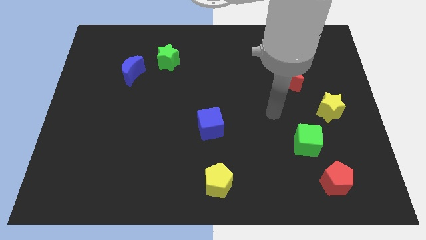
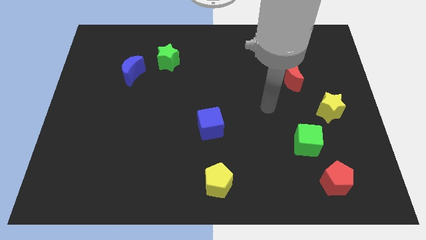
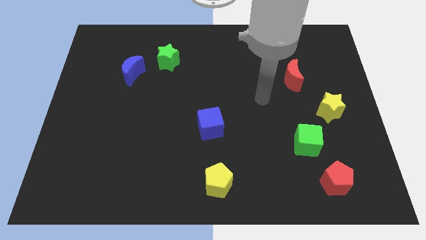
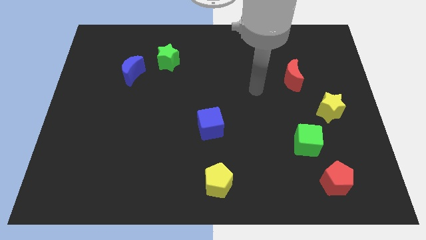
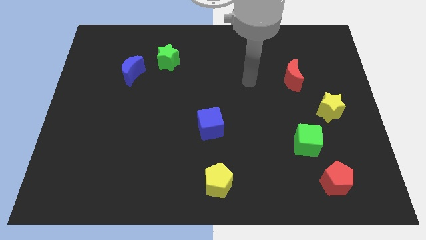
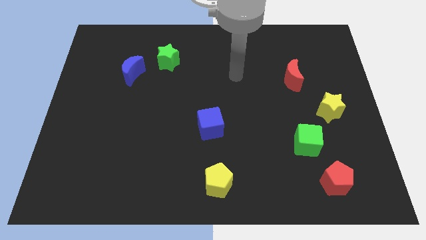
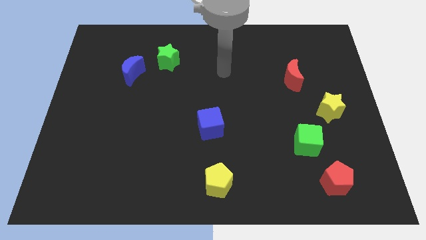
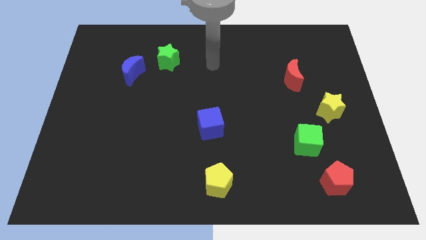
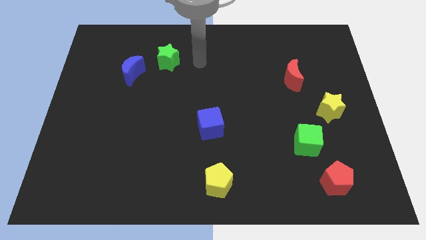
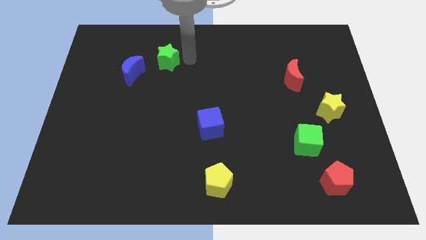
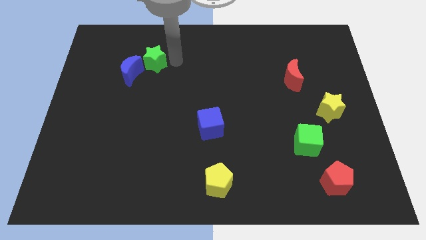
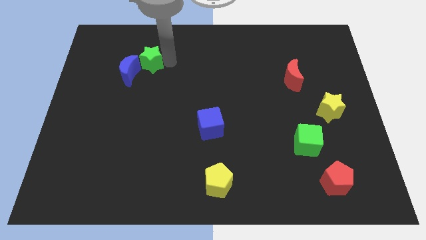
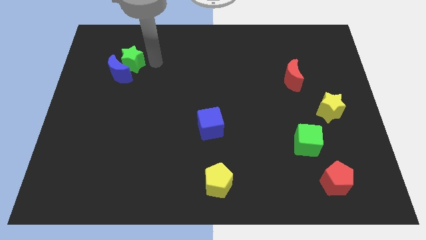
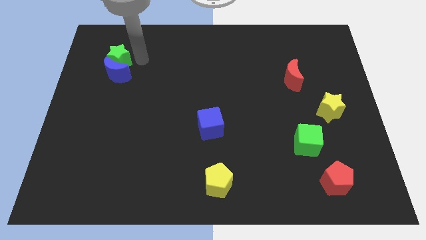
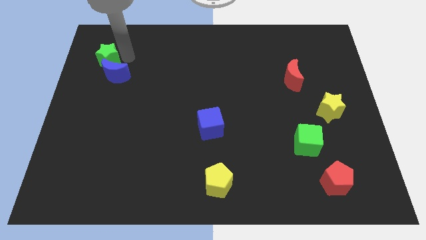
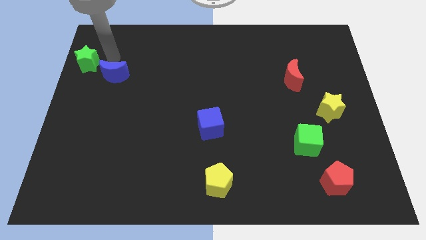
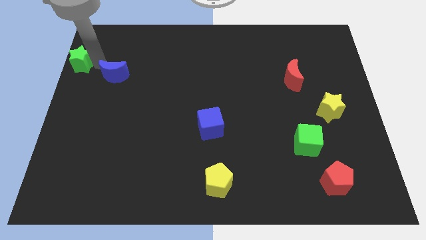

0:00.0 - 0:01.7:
pull the blue moon apart from the green star

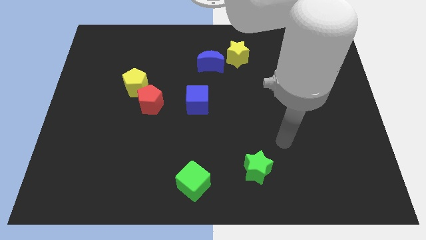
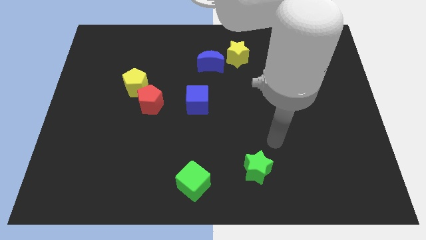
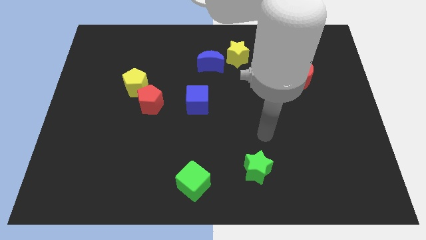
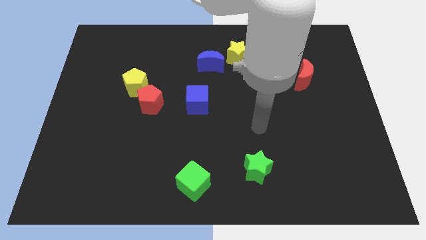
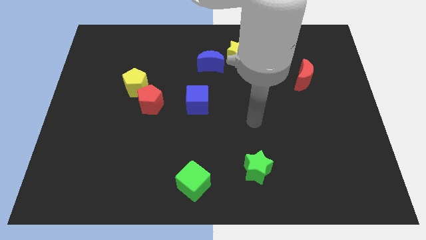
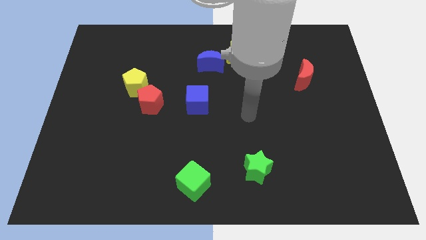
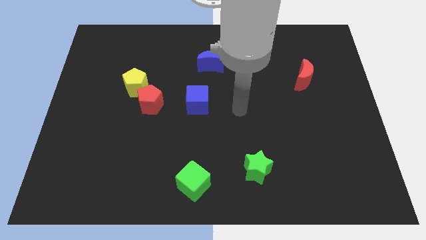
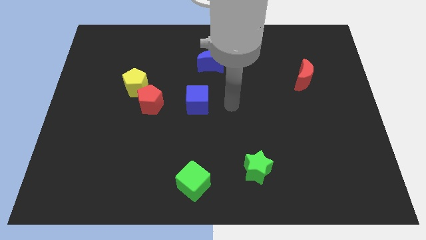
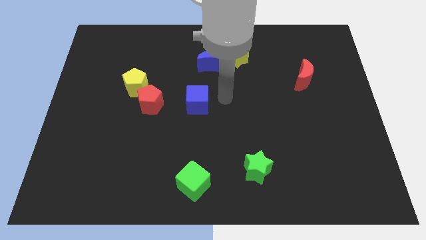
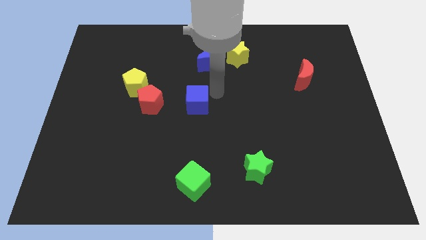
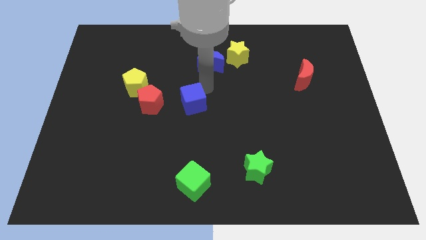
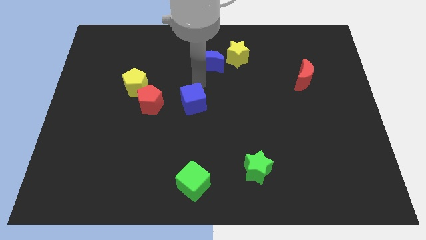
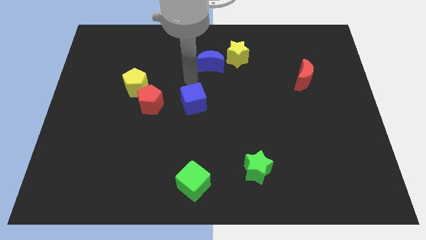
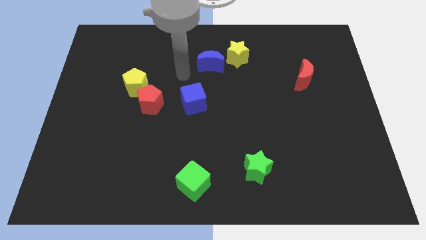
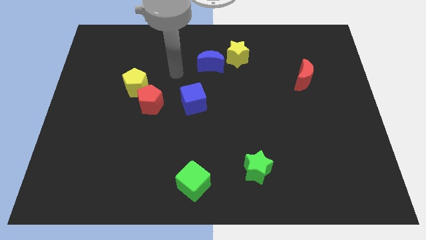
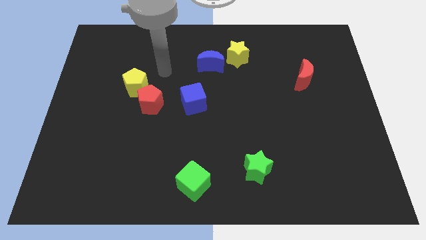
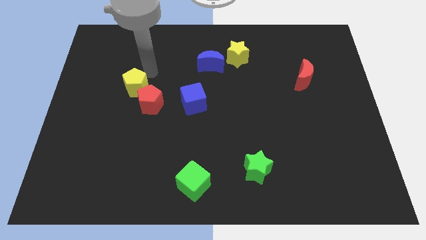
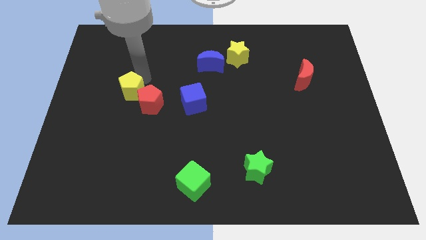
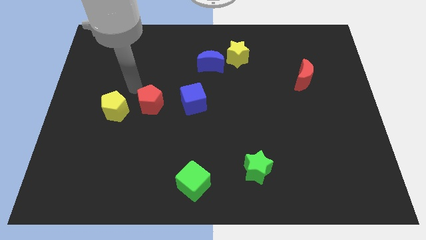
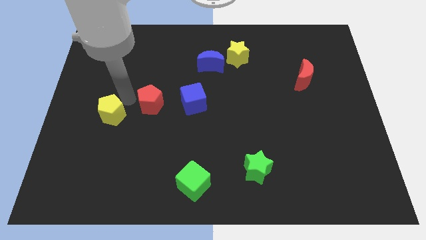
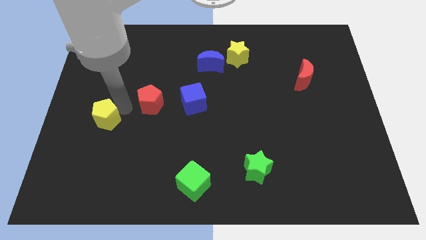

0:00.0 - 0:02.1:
move the red pentagon away from the yellow pentagon

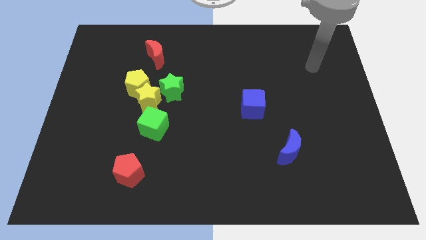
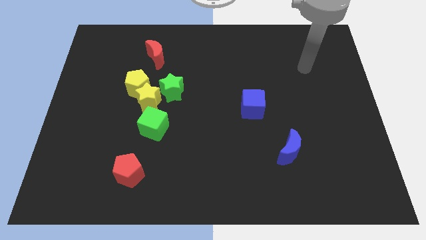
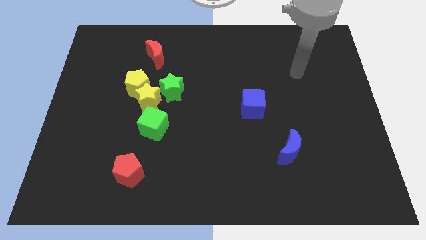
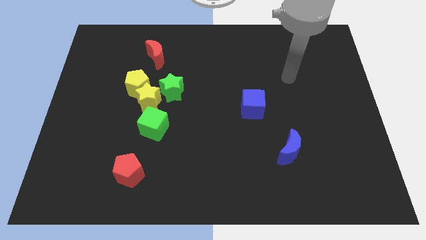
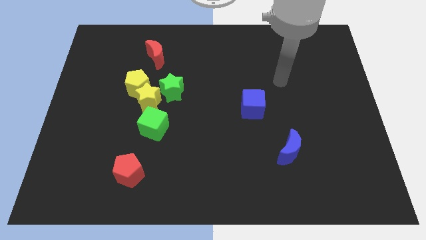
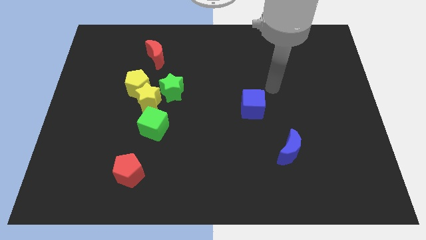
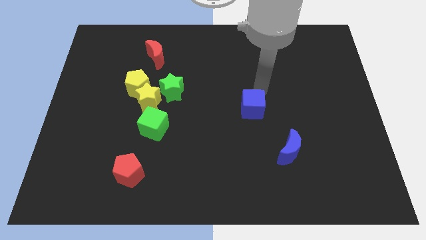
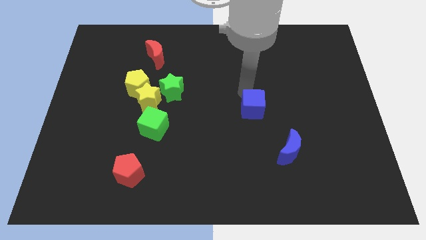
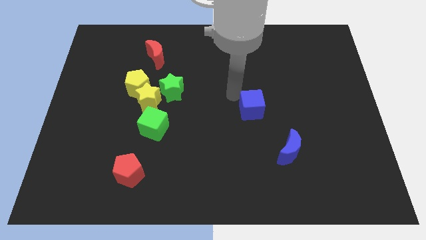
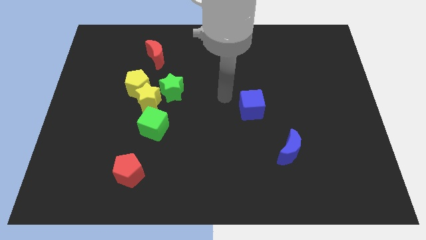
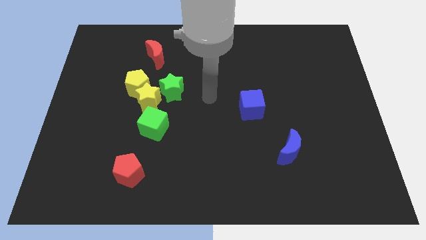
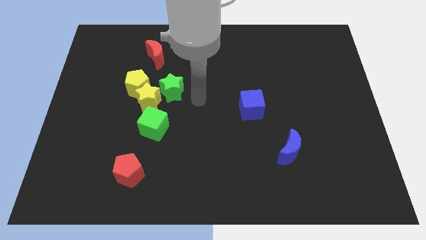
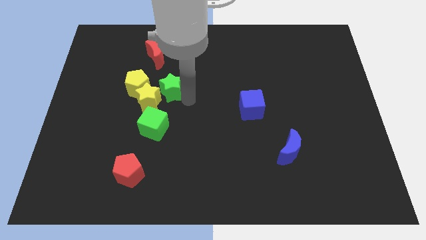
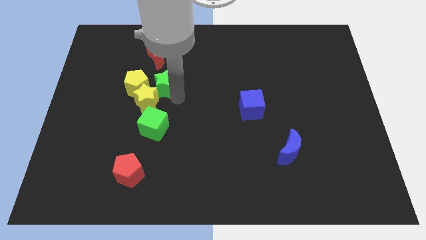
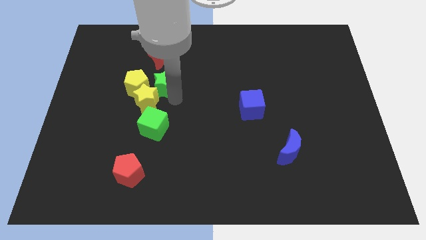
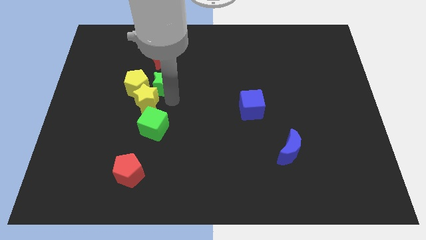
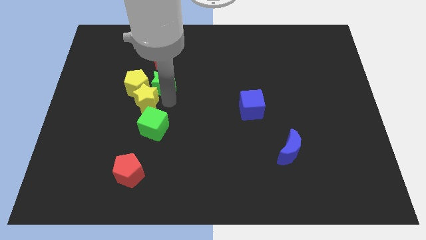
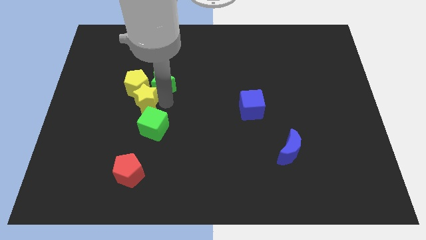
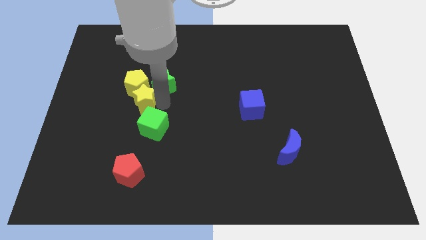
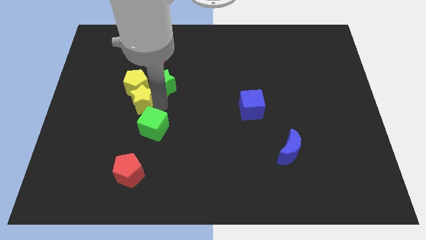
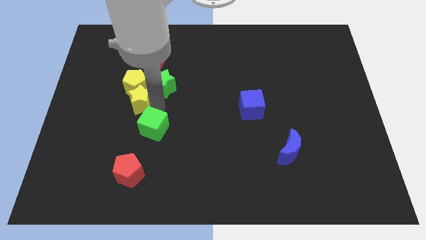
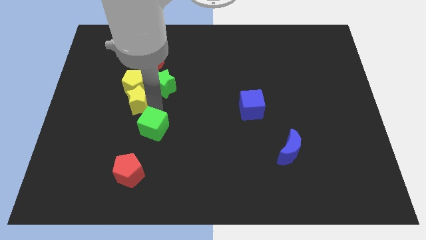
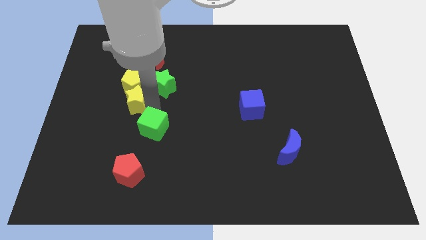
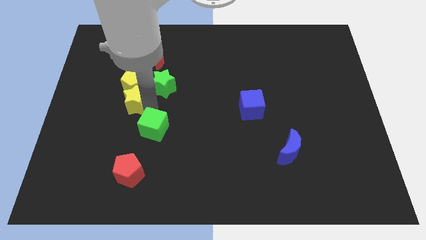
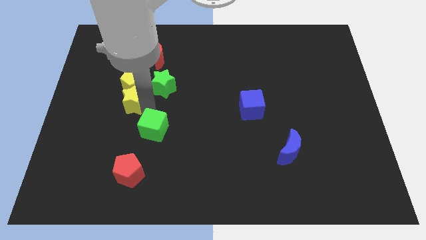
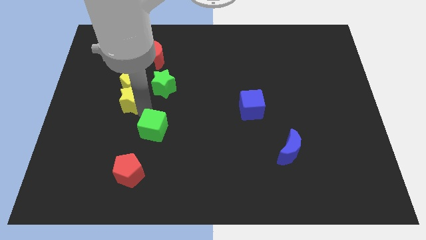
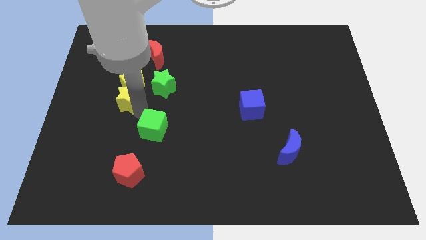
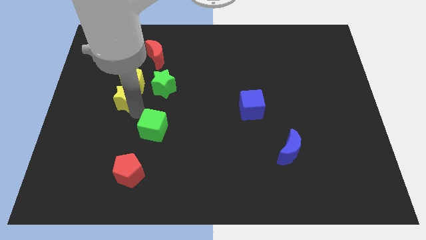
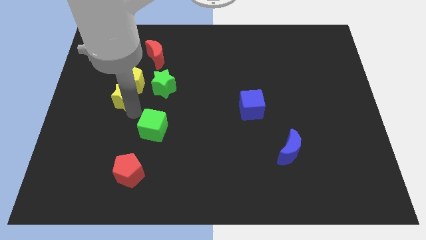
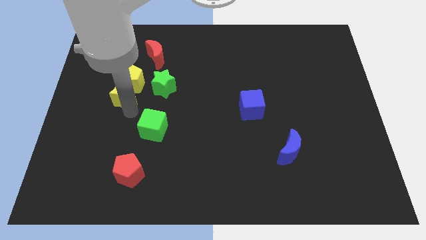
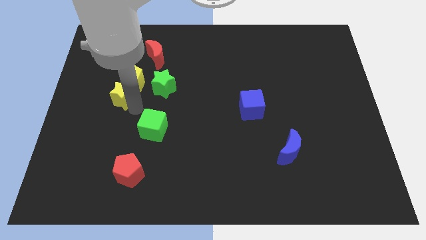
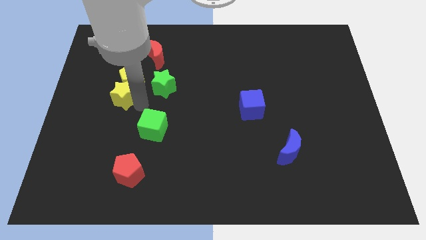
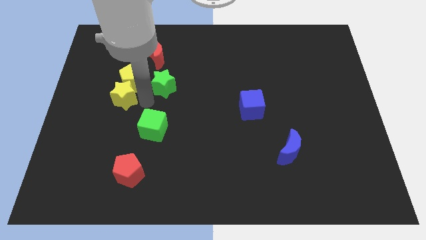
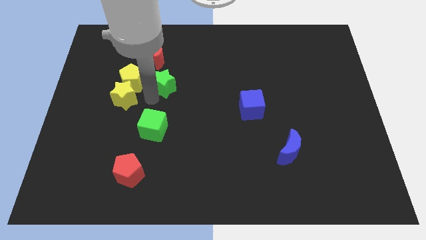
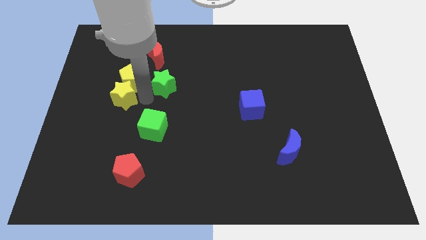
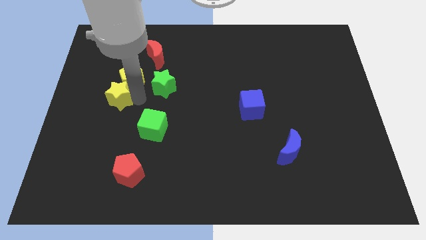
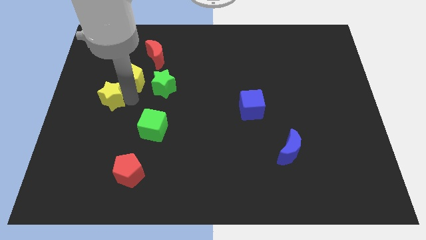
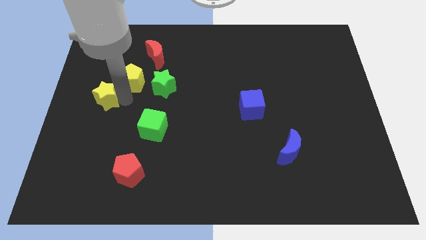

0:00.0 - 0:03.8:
move the yellow star away from the group of blocks

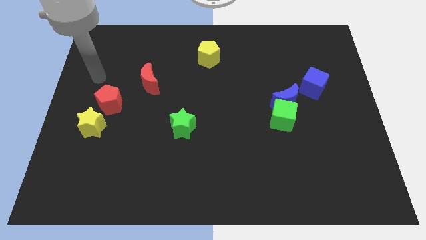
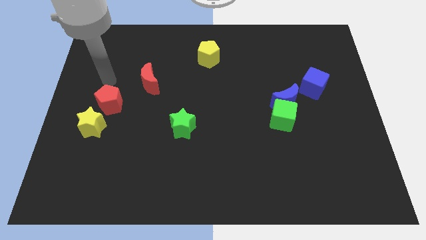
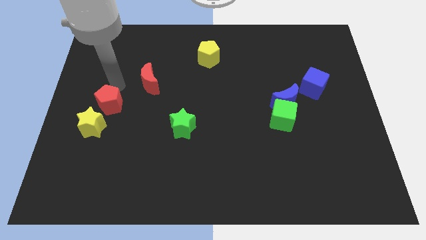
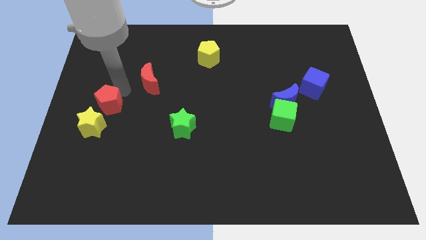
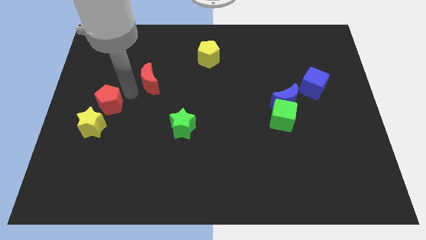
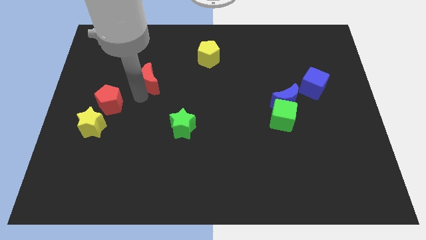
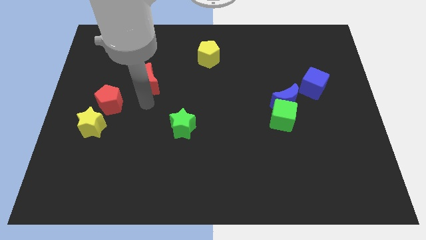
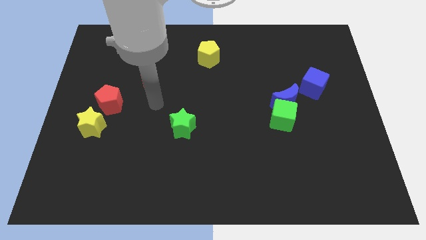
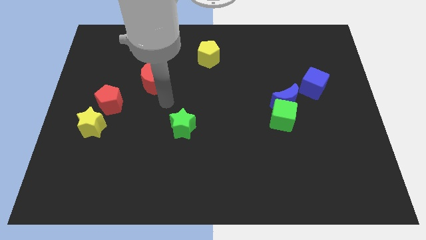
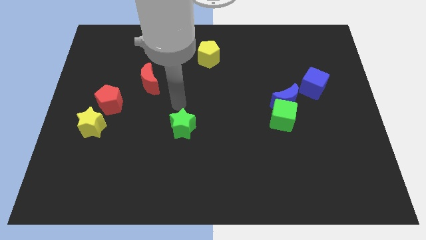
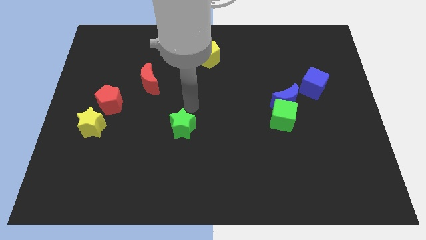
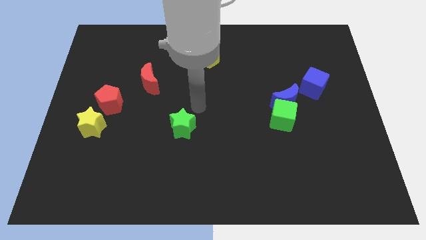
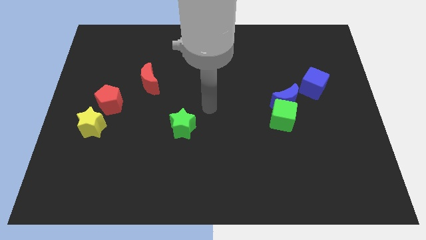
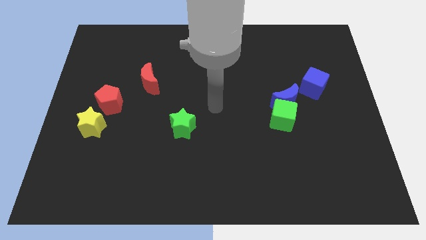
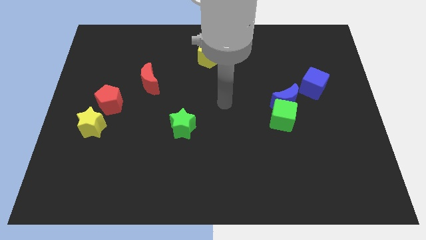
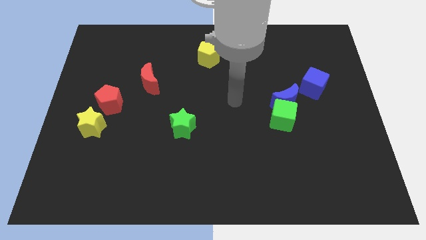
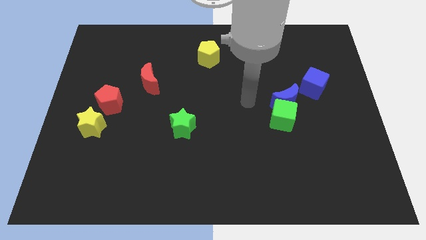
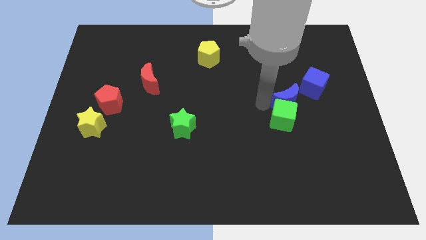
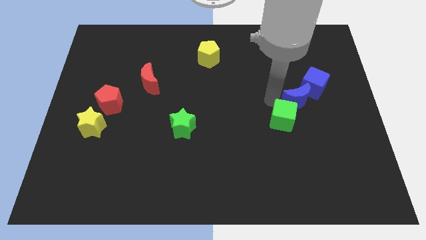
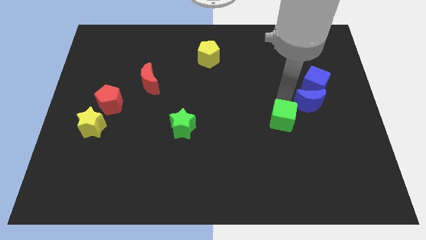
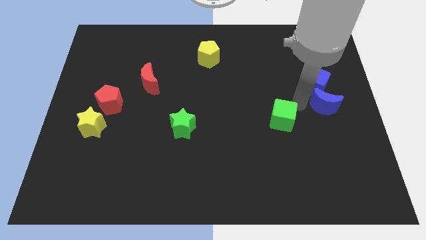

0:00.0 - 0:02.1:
separate the green cube from the blue moon
